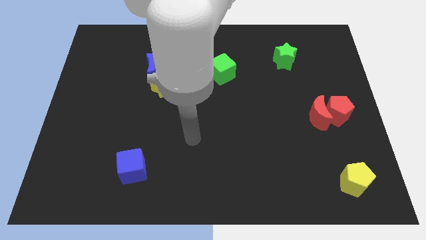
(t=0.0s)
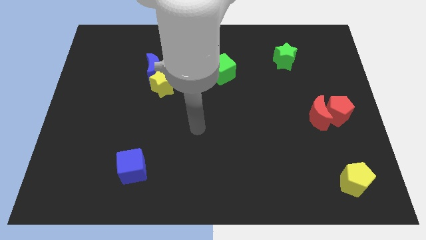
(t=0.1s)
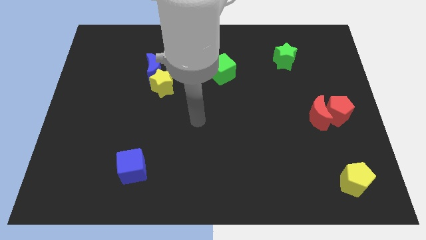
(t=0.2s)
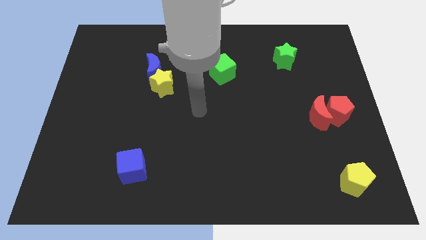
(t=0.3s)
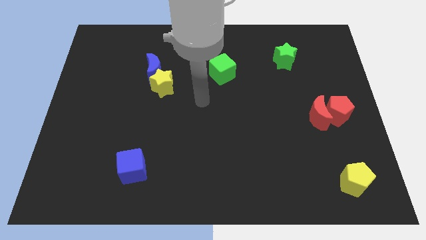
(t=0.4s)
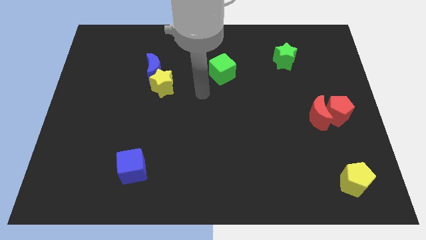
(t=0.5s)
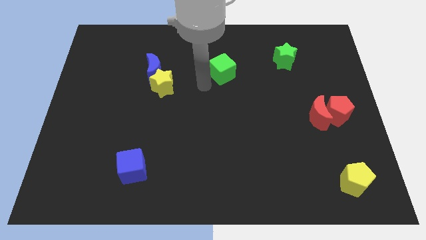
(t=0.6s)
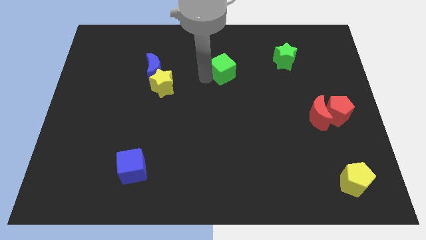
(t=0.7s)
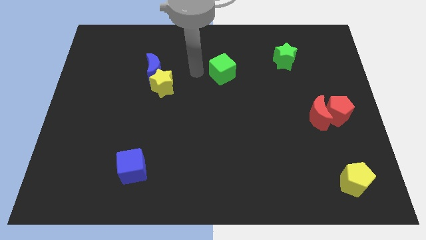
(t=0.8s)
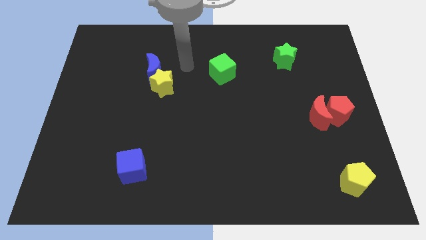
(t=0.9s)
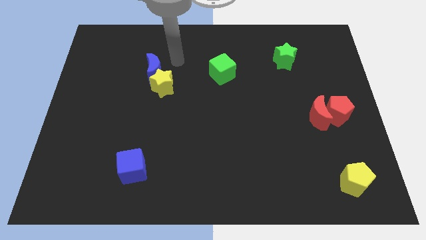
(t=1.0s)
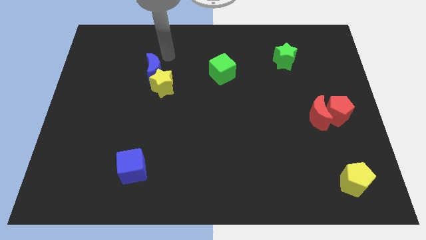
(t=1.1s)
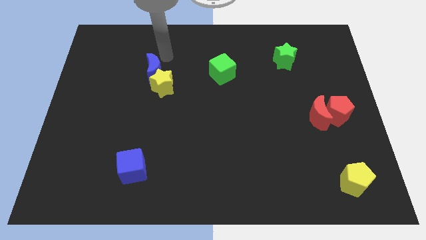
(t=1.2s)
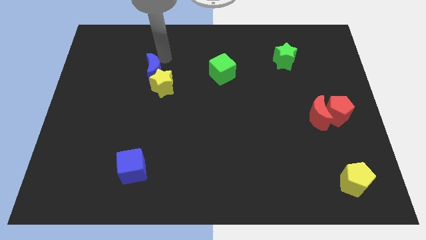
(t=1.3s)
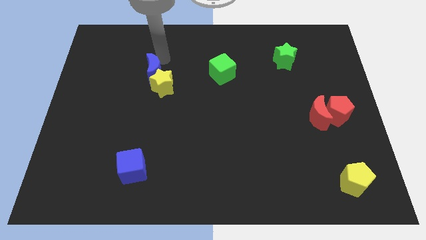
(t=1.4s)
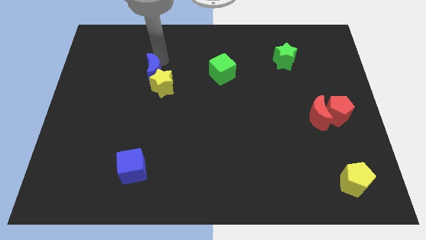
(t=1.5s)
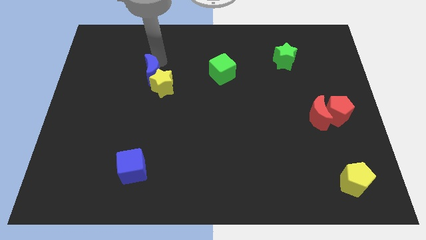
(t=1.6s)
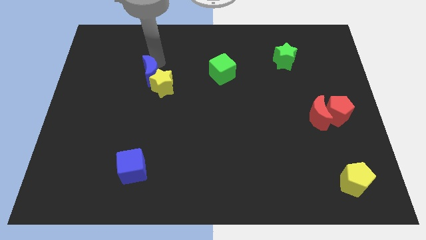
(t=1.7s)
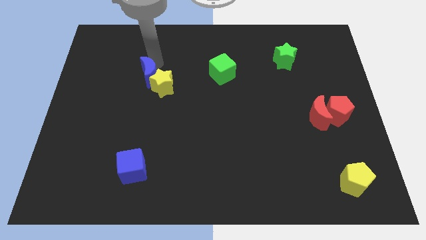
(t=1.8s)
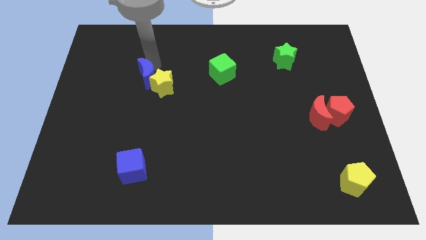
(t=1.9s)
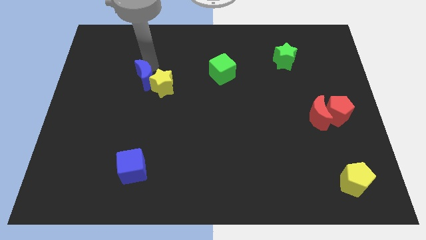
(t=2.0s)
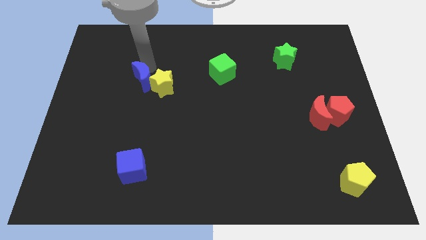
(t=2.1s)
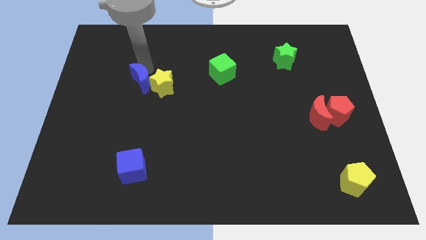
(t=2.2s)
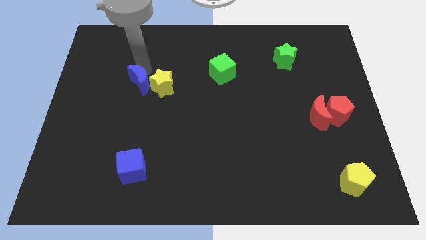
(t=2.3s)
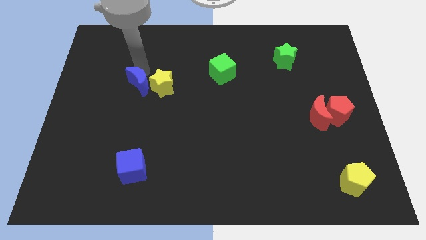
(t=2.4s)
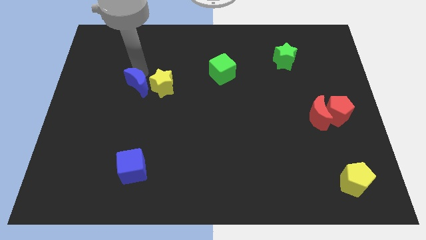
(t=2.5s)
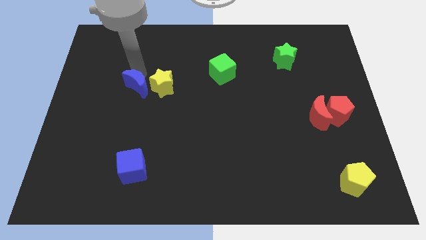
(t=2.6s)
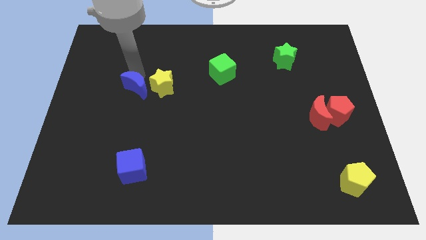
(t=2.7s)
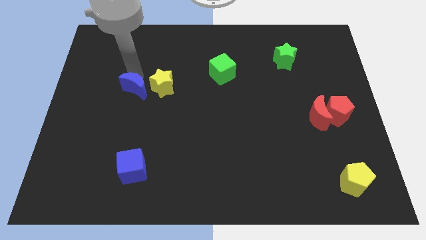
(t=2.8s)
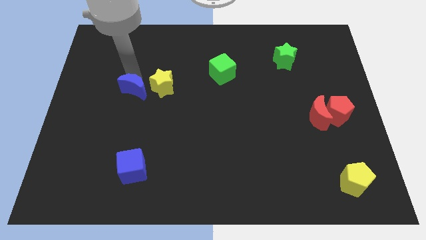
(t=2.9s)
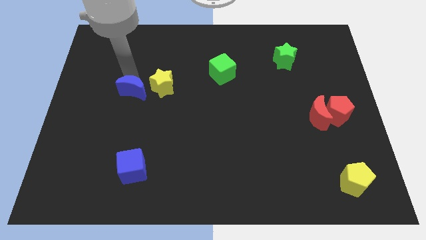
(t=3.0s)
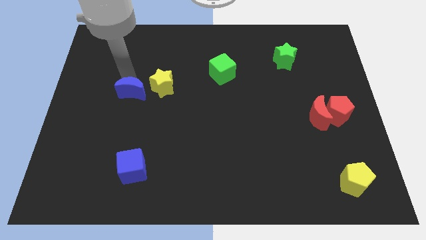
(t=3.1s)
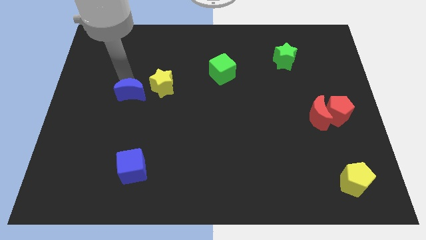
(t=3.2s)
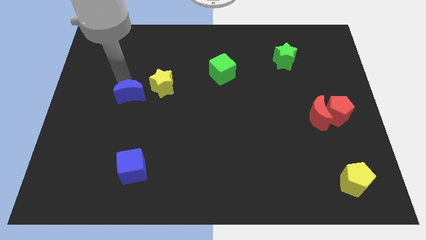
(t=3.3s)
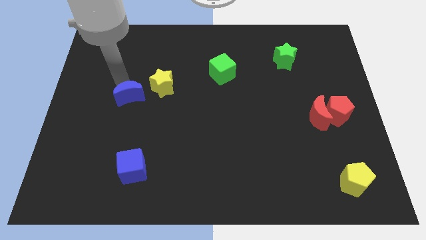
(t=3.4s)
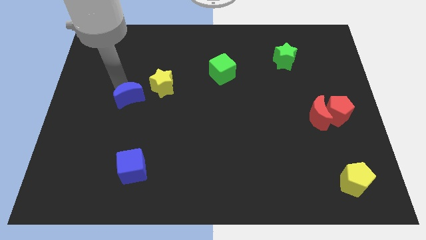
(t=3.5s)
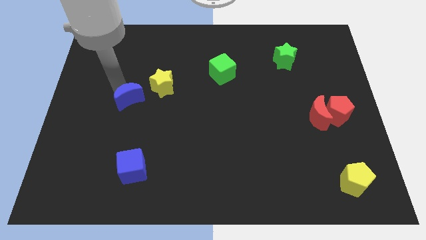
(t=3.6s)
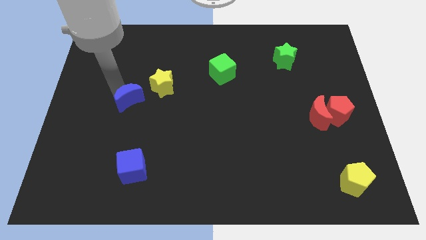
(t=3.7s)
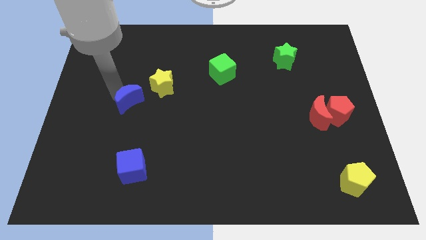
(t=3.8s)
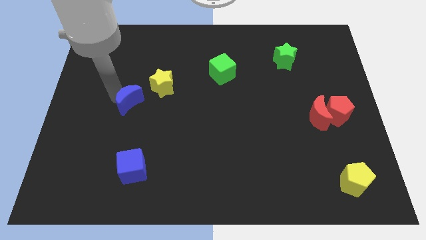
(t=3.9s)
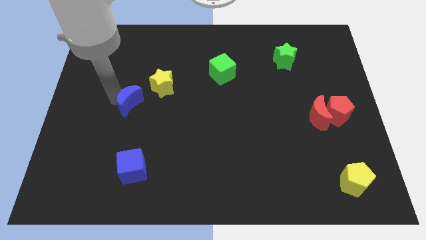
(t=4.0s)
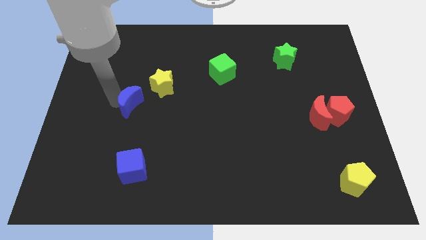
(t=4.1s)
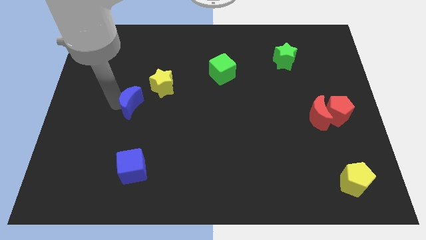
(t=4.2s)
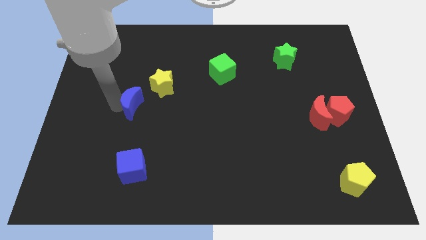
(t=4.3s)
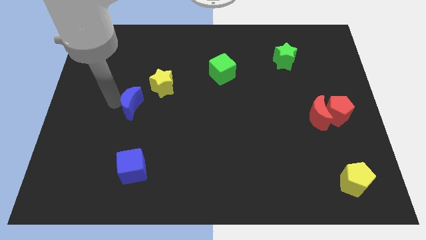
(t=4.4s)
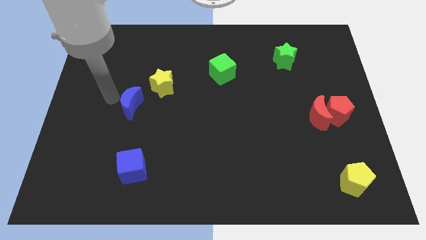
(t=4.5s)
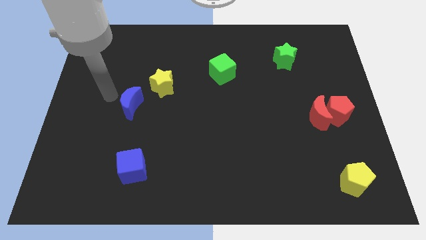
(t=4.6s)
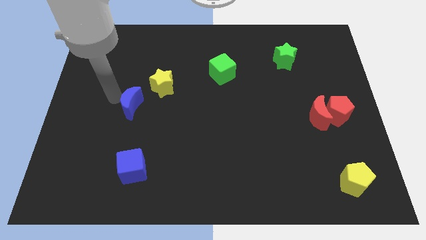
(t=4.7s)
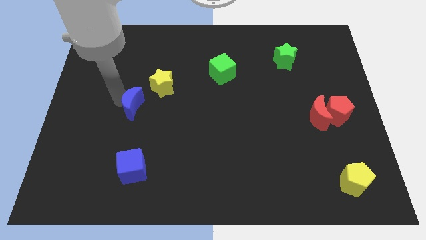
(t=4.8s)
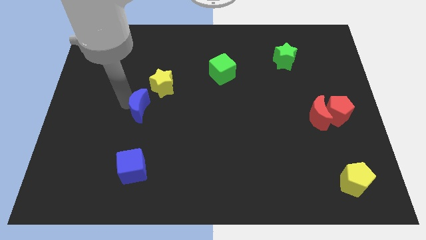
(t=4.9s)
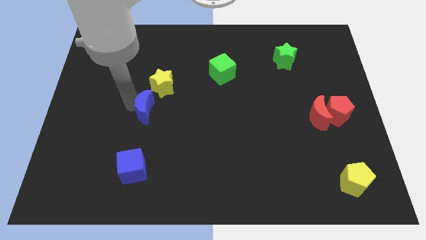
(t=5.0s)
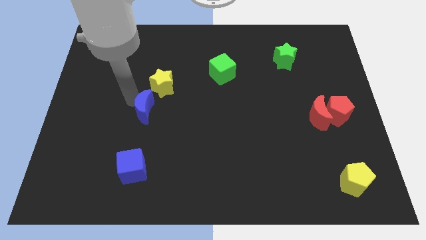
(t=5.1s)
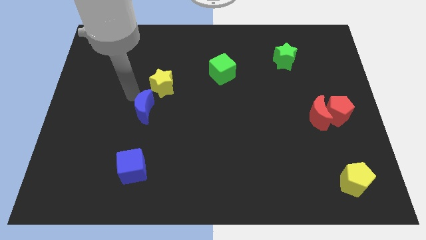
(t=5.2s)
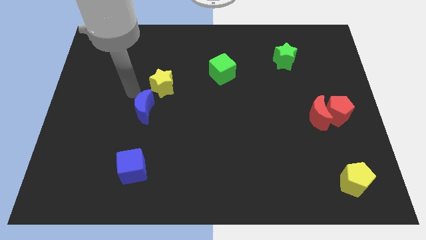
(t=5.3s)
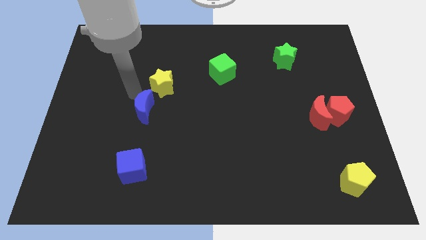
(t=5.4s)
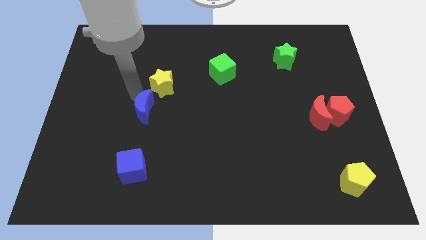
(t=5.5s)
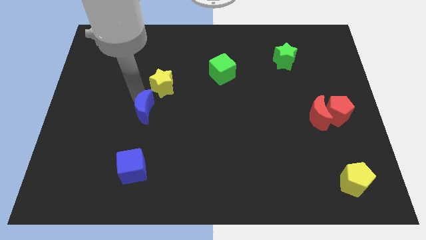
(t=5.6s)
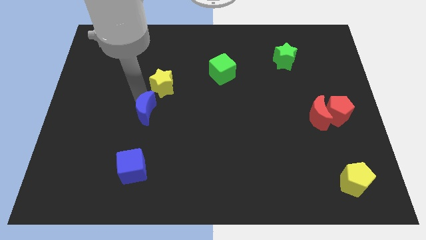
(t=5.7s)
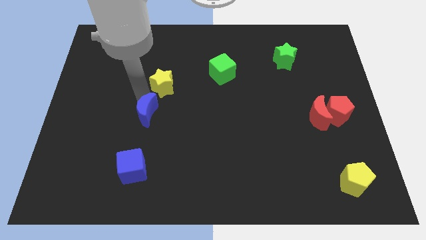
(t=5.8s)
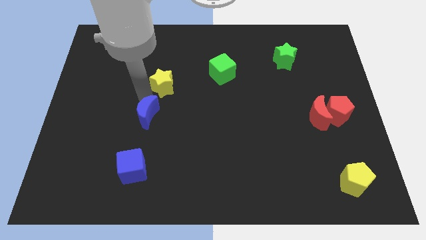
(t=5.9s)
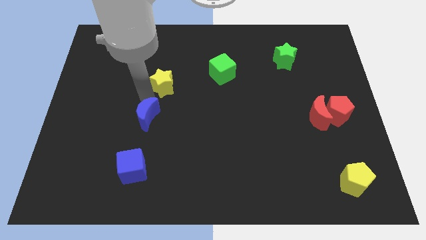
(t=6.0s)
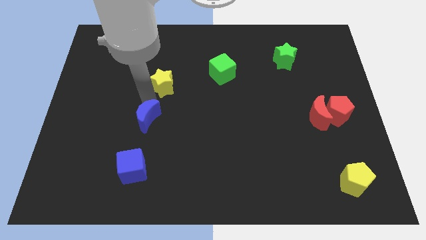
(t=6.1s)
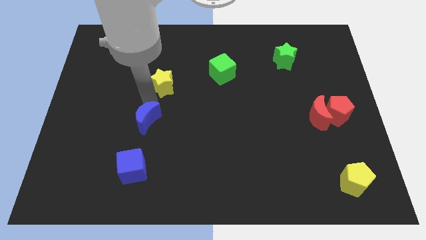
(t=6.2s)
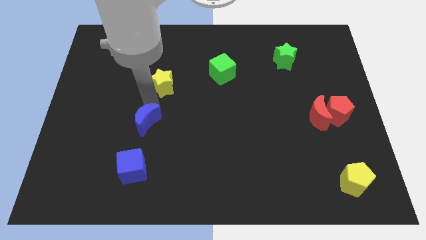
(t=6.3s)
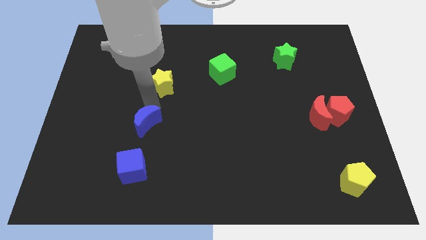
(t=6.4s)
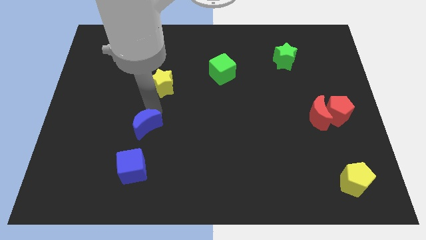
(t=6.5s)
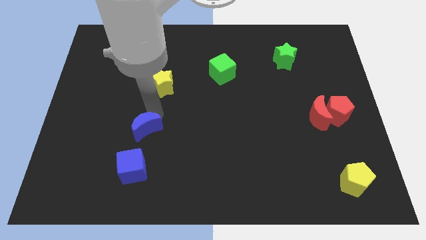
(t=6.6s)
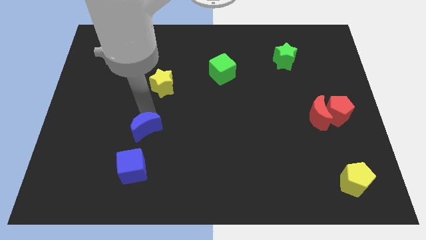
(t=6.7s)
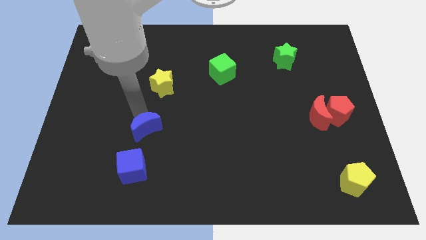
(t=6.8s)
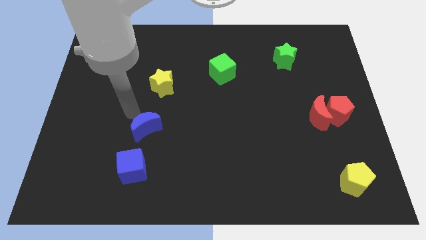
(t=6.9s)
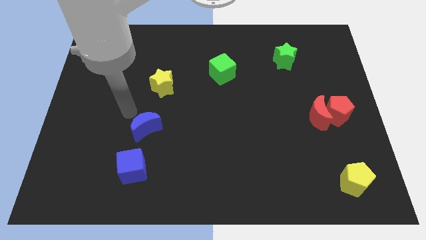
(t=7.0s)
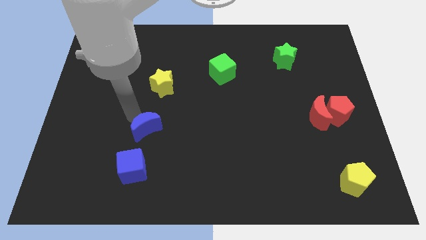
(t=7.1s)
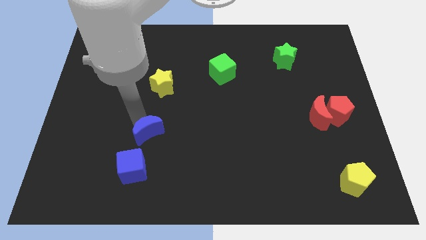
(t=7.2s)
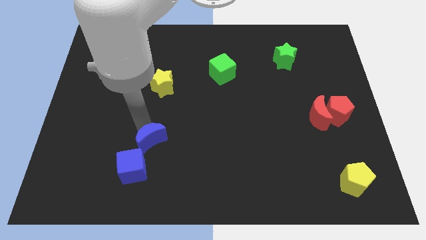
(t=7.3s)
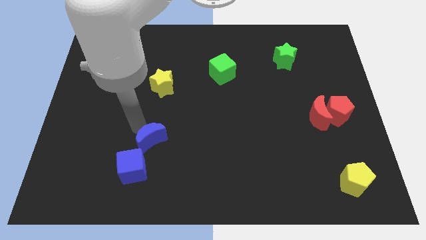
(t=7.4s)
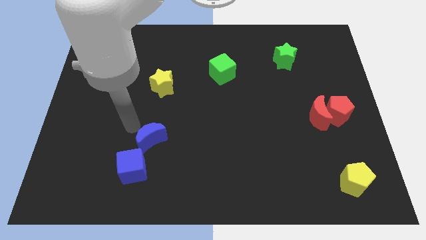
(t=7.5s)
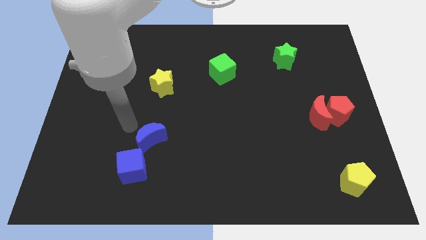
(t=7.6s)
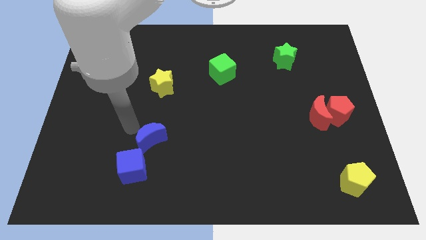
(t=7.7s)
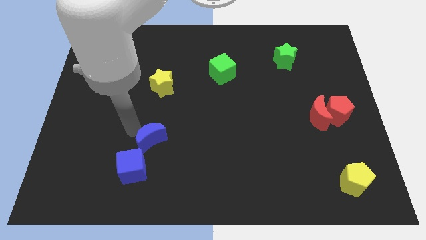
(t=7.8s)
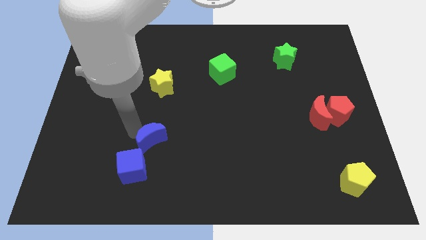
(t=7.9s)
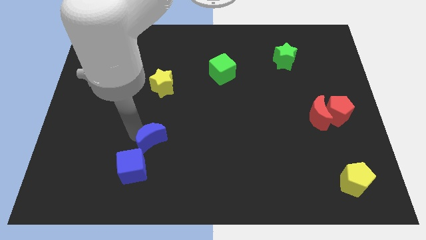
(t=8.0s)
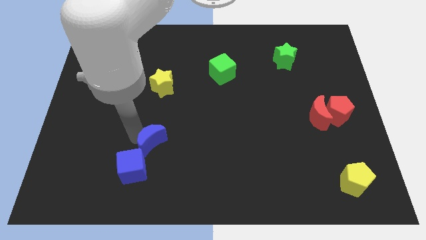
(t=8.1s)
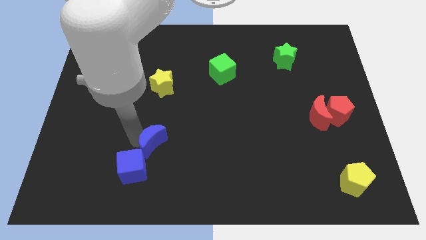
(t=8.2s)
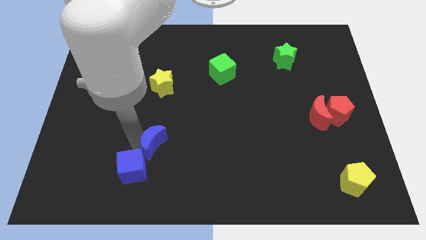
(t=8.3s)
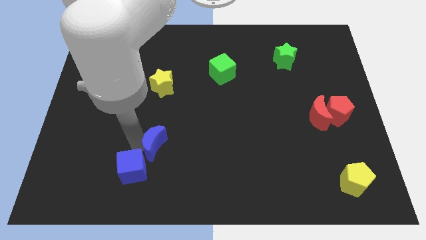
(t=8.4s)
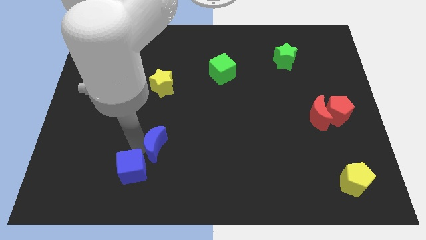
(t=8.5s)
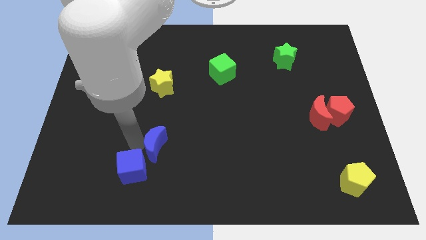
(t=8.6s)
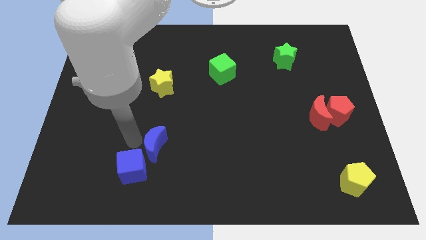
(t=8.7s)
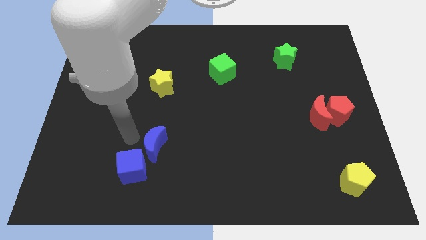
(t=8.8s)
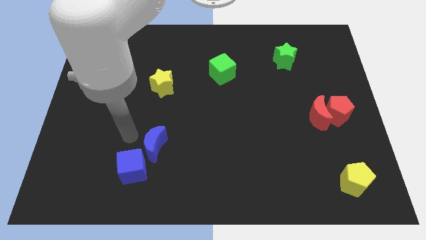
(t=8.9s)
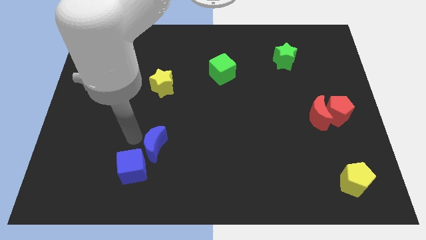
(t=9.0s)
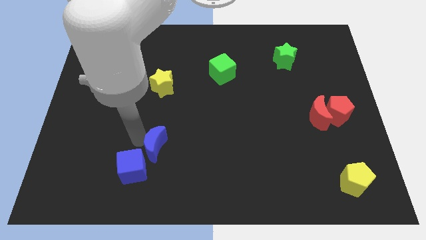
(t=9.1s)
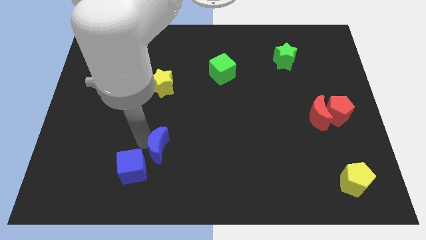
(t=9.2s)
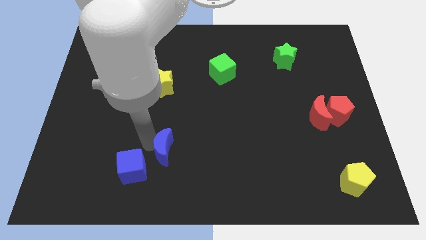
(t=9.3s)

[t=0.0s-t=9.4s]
slide the blue moon right of the blue cube
